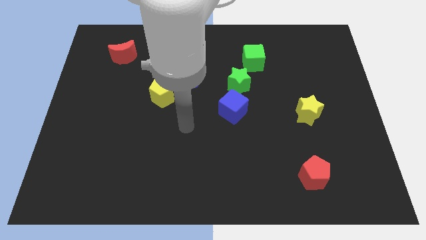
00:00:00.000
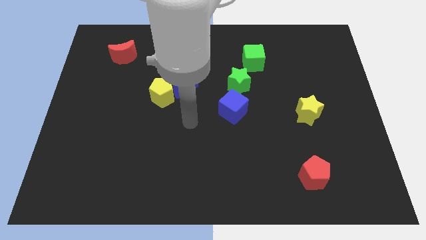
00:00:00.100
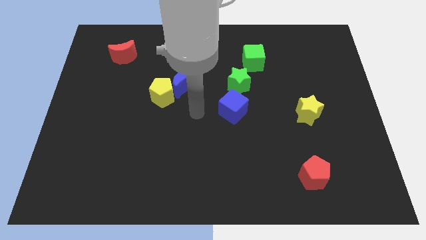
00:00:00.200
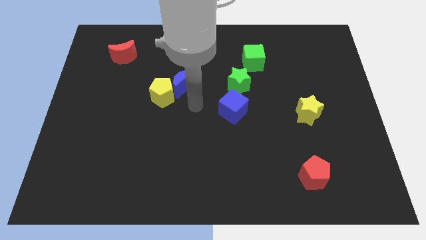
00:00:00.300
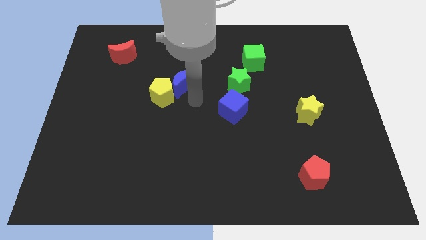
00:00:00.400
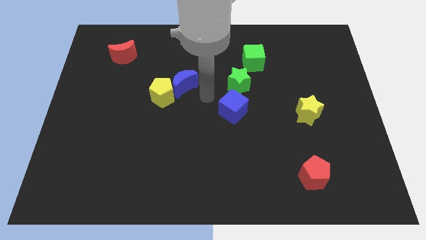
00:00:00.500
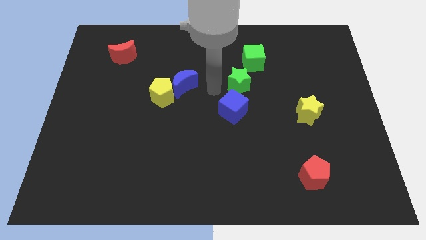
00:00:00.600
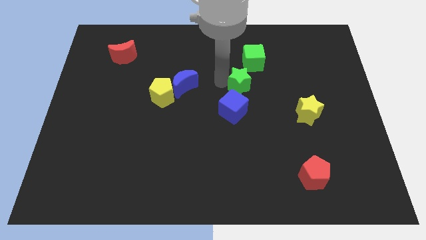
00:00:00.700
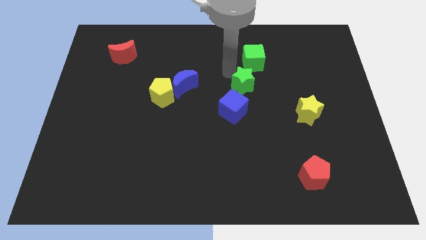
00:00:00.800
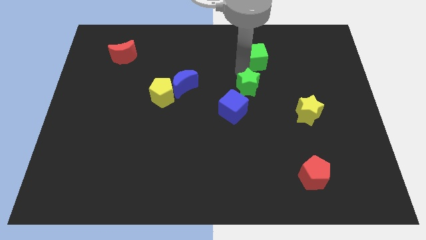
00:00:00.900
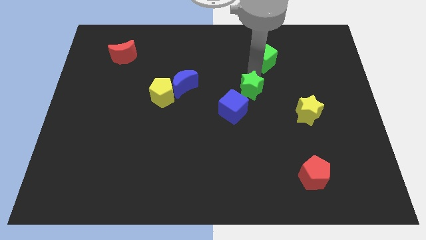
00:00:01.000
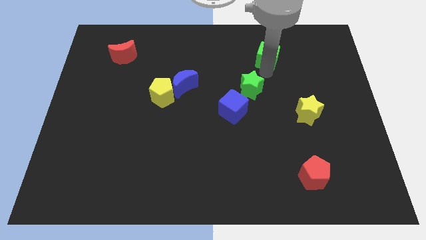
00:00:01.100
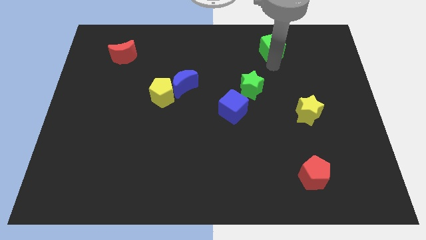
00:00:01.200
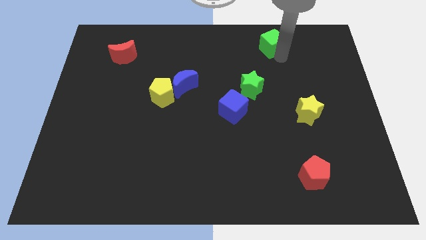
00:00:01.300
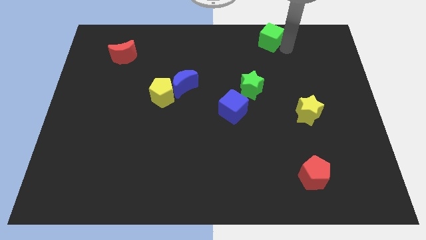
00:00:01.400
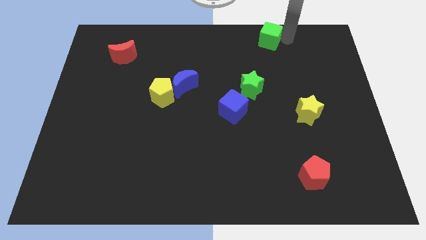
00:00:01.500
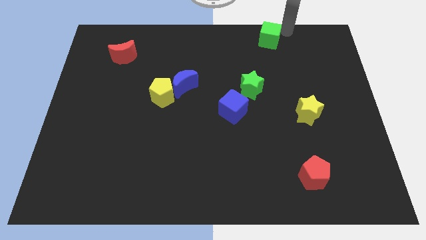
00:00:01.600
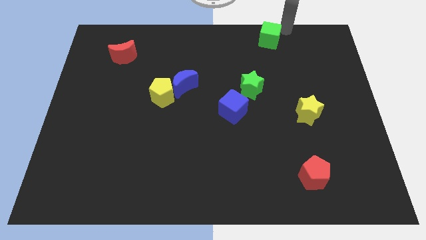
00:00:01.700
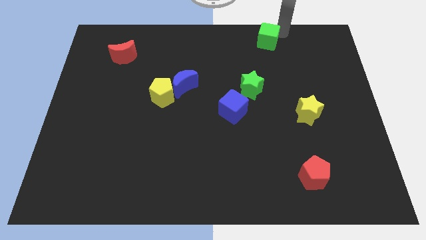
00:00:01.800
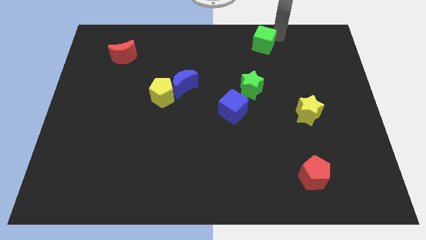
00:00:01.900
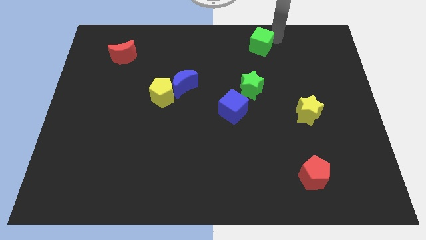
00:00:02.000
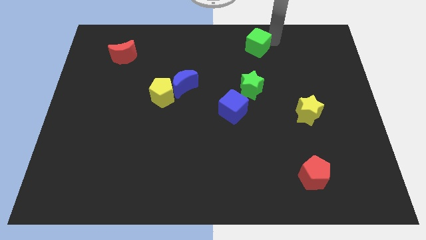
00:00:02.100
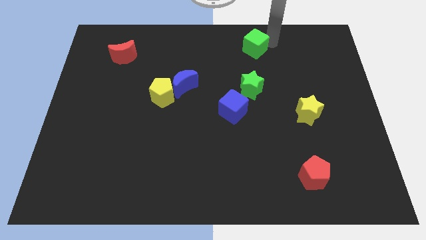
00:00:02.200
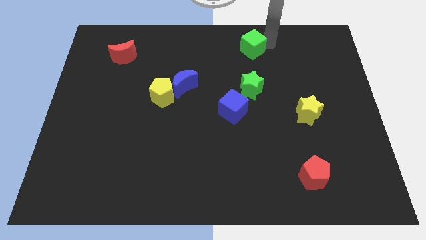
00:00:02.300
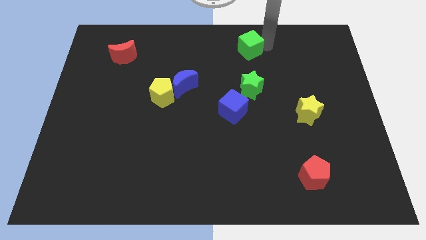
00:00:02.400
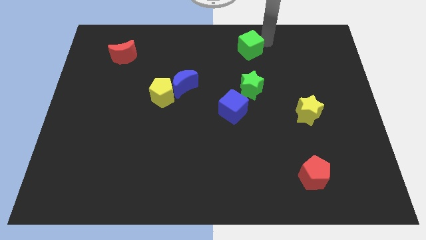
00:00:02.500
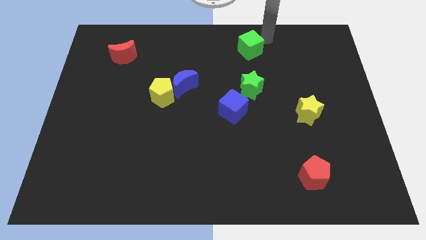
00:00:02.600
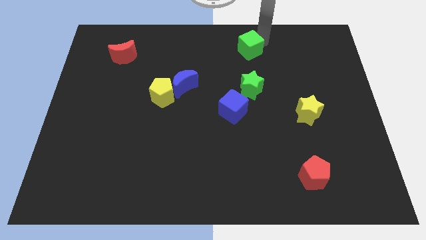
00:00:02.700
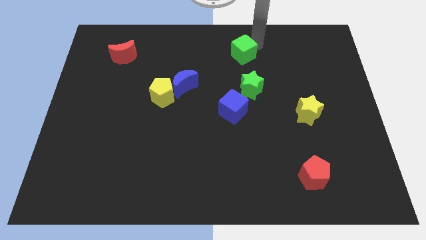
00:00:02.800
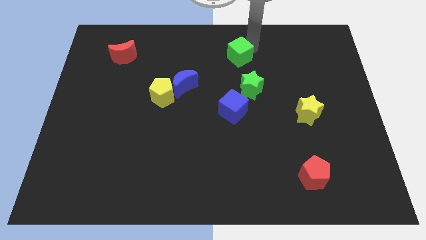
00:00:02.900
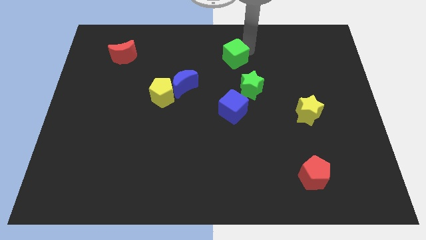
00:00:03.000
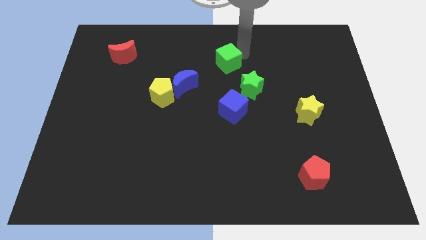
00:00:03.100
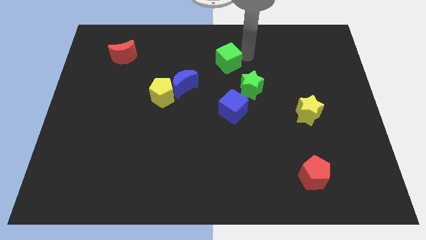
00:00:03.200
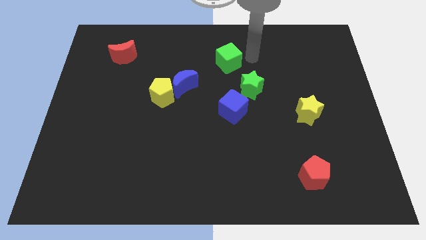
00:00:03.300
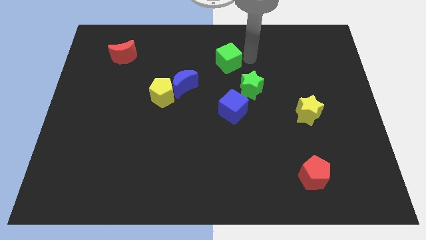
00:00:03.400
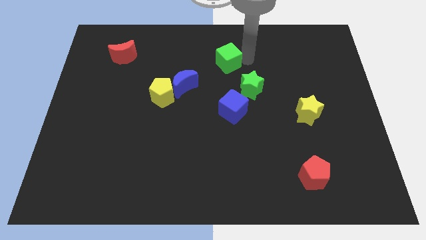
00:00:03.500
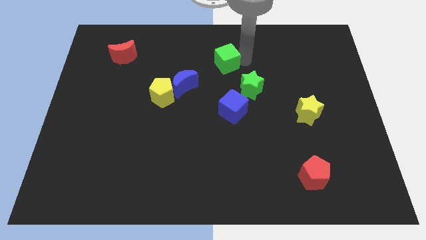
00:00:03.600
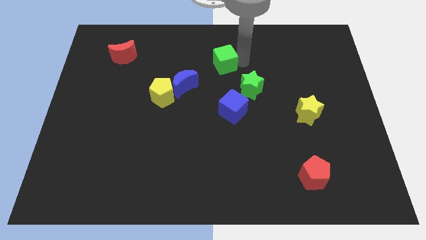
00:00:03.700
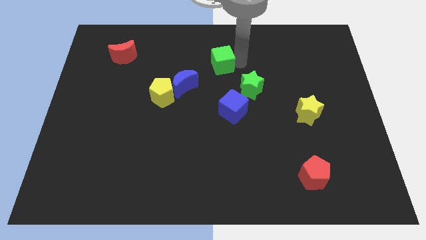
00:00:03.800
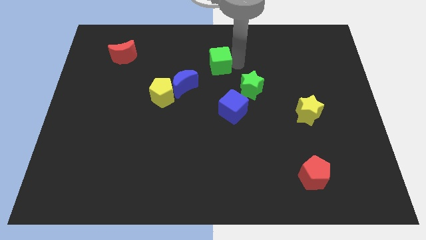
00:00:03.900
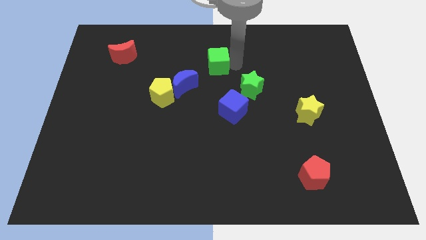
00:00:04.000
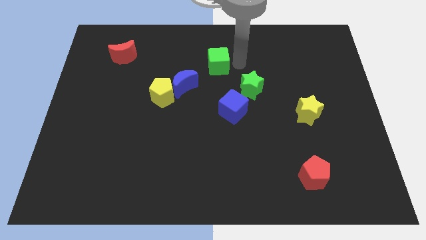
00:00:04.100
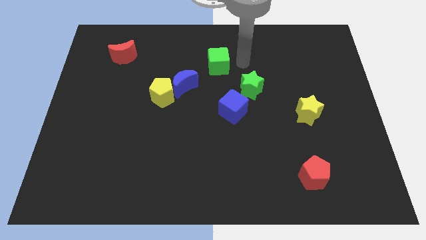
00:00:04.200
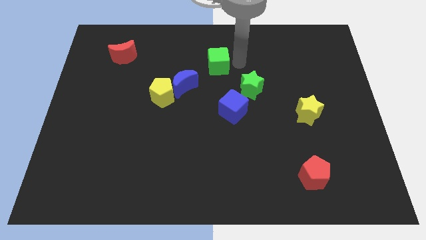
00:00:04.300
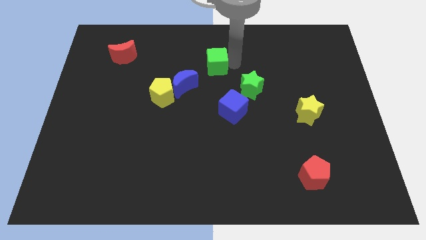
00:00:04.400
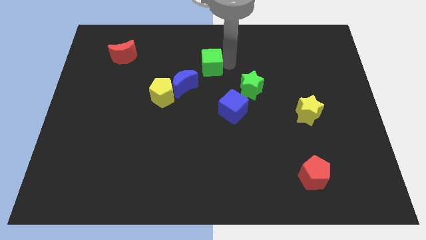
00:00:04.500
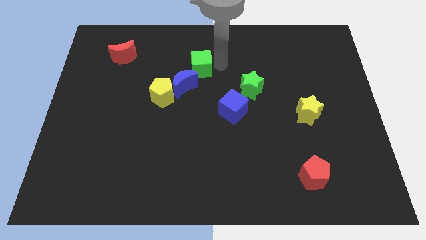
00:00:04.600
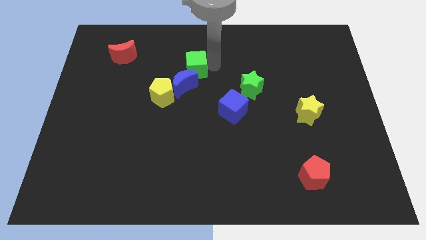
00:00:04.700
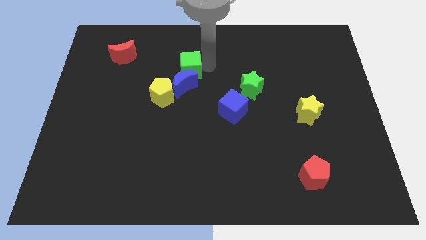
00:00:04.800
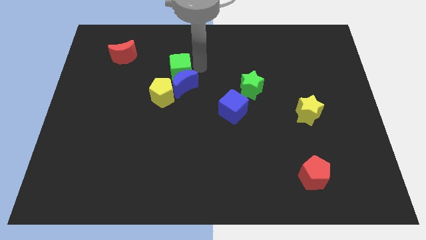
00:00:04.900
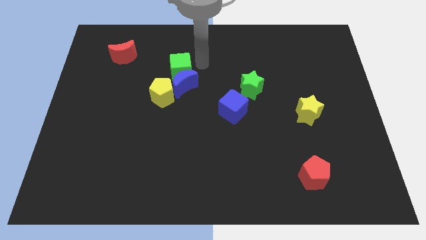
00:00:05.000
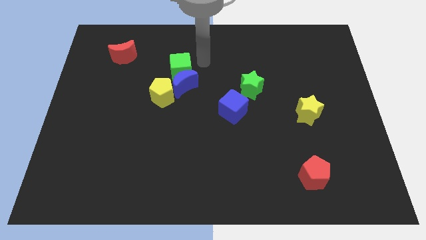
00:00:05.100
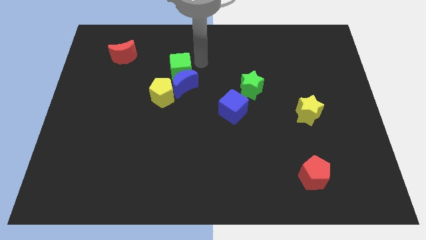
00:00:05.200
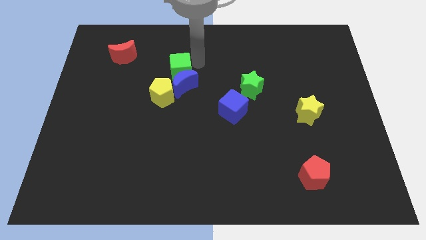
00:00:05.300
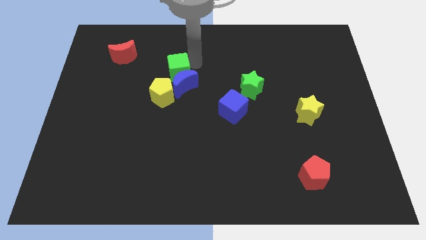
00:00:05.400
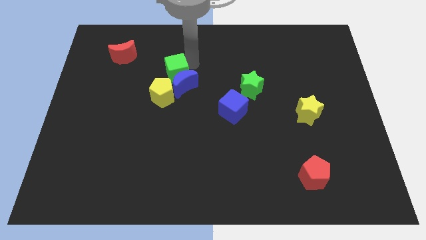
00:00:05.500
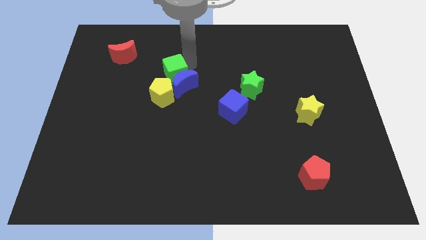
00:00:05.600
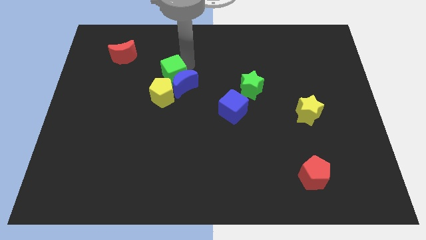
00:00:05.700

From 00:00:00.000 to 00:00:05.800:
slide the green cube just left of the blue moon
